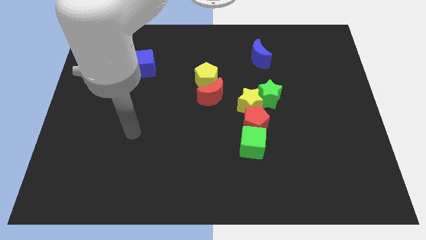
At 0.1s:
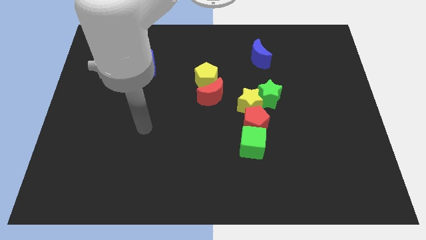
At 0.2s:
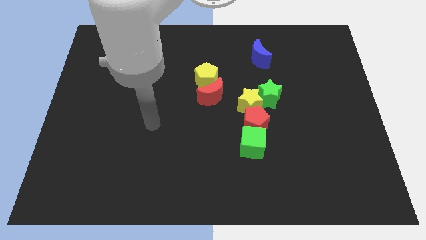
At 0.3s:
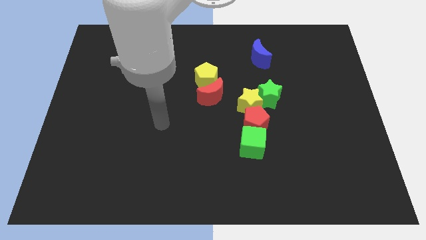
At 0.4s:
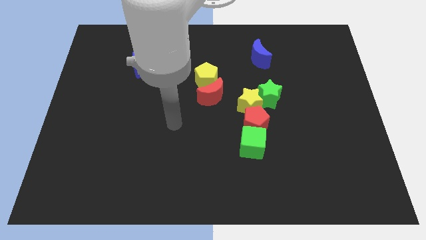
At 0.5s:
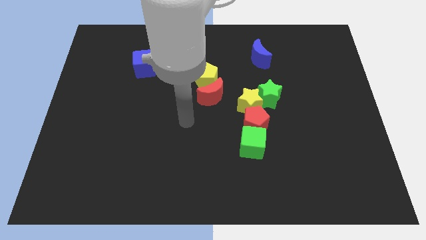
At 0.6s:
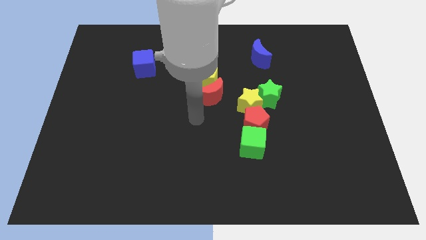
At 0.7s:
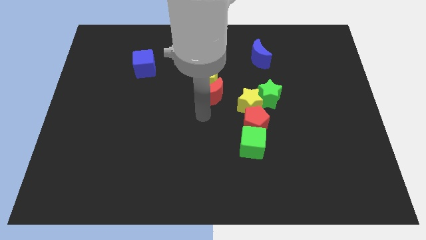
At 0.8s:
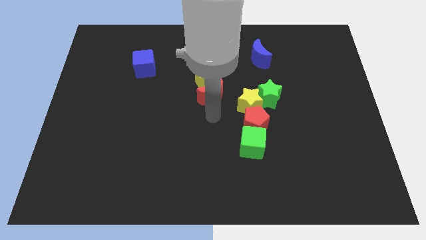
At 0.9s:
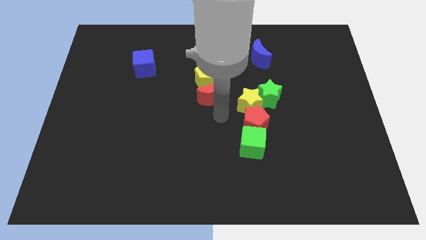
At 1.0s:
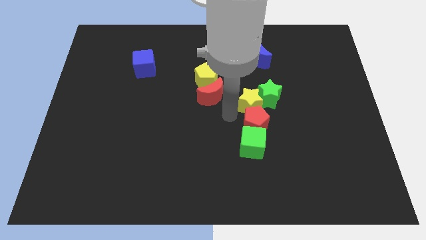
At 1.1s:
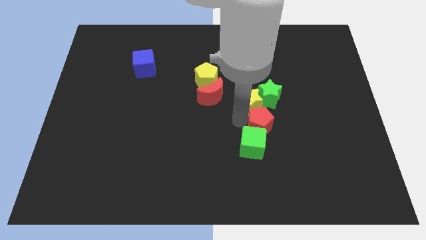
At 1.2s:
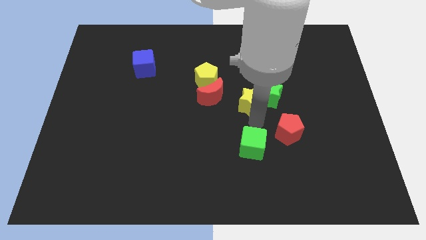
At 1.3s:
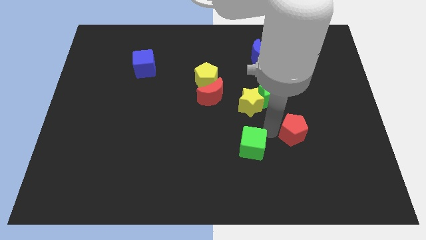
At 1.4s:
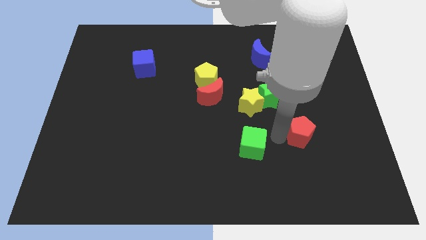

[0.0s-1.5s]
separate the green cube from the red pentagon

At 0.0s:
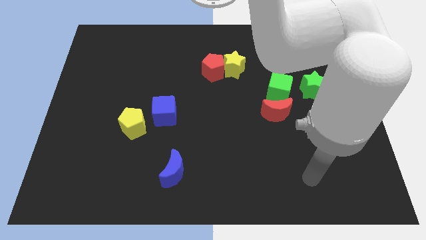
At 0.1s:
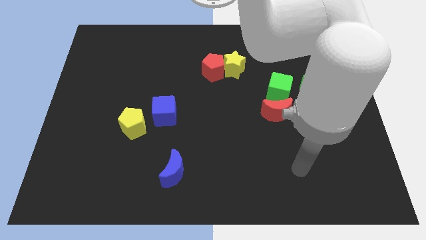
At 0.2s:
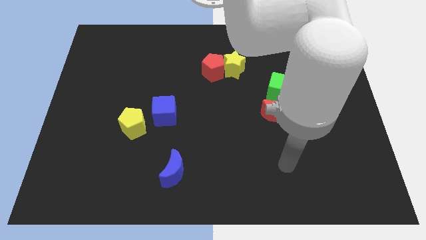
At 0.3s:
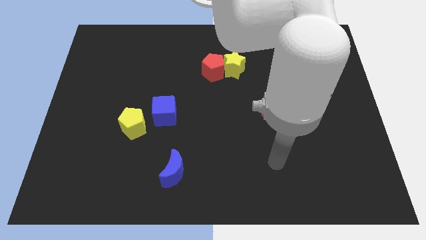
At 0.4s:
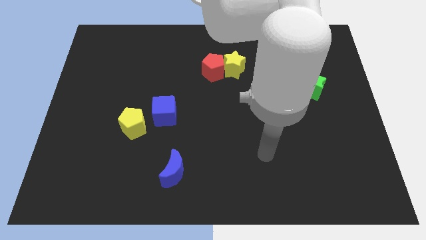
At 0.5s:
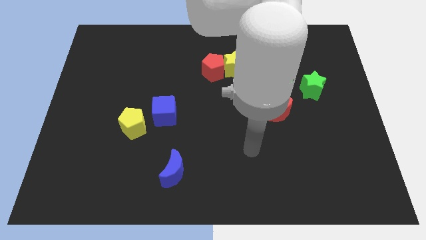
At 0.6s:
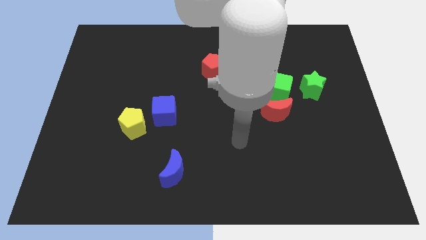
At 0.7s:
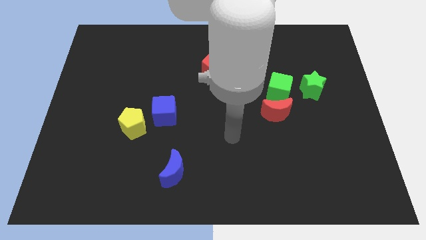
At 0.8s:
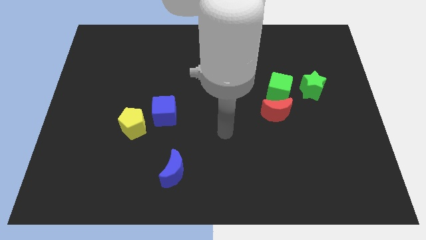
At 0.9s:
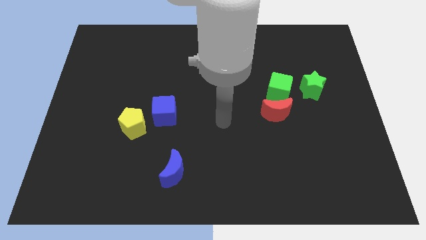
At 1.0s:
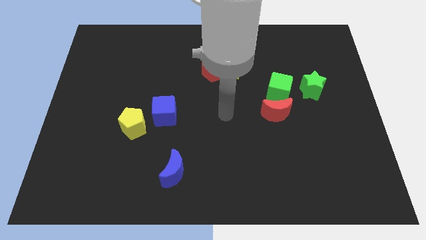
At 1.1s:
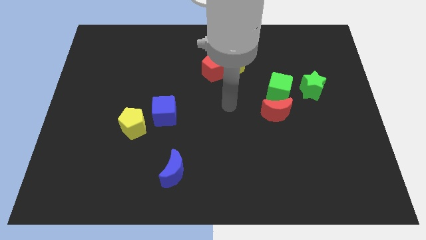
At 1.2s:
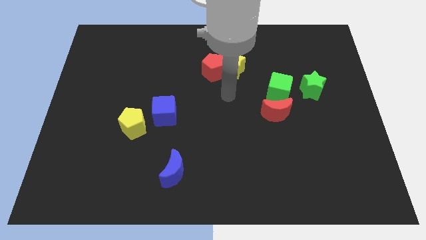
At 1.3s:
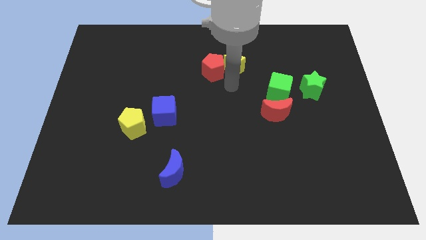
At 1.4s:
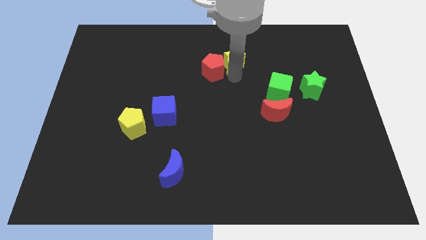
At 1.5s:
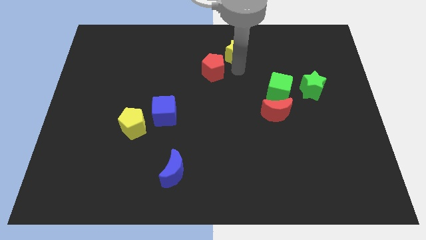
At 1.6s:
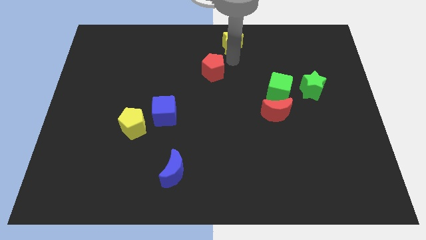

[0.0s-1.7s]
move the red pentagon away from the yellow star

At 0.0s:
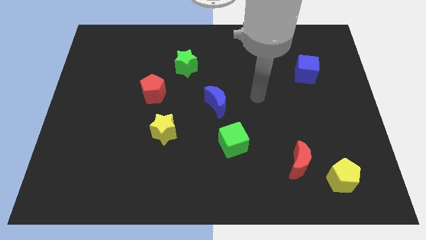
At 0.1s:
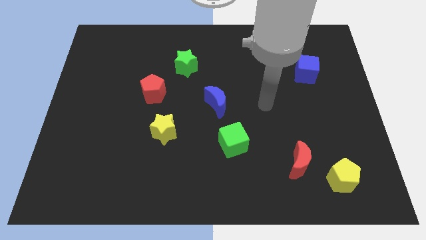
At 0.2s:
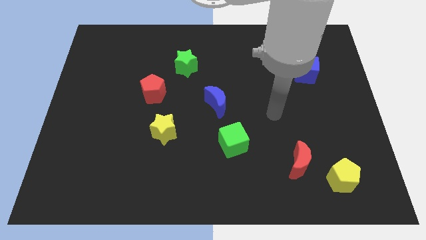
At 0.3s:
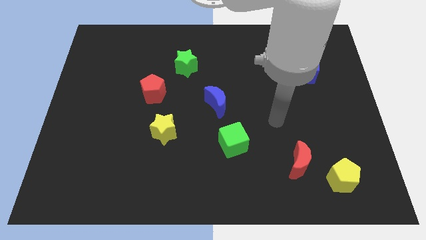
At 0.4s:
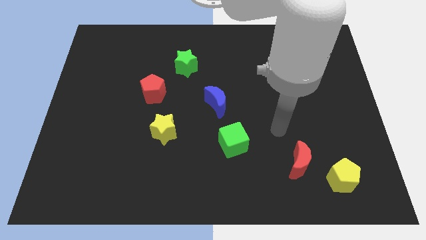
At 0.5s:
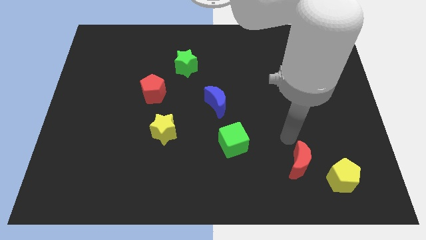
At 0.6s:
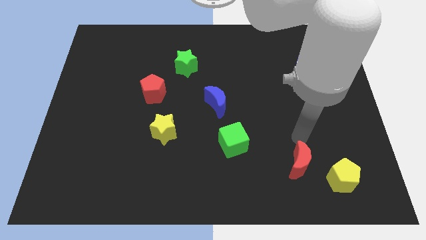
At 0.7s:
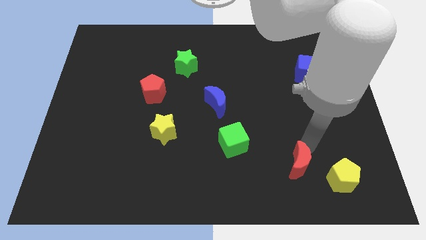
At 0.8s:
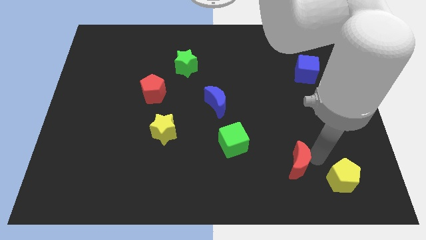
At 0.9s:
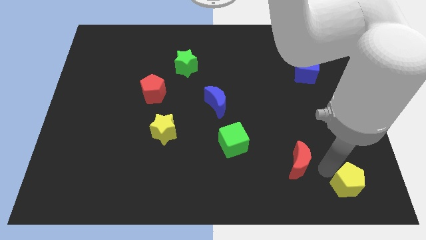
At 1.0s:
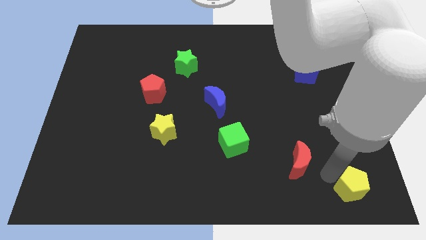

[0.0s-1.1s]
move the red moon away from the yellow pentagon

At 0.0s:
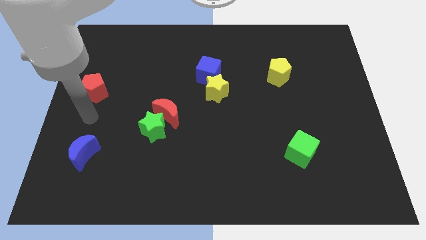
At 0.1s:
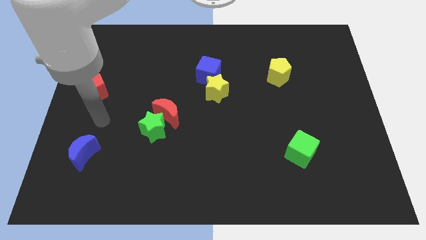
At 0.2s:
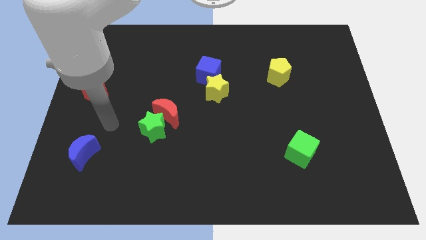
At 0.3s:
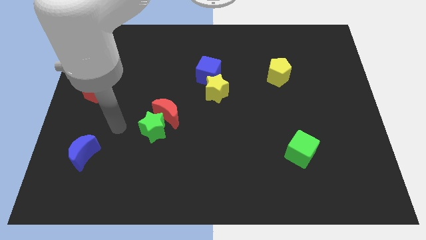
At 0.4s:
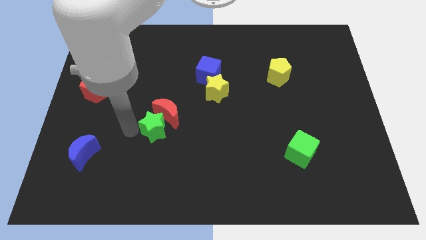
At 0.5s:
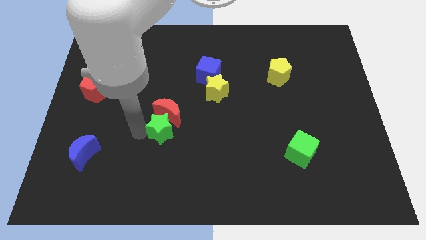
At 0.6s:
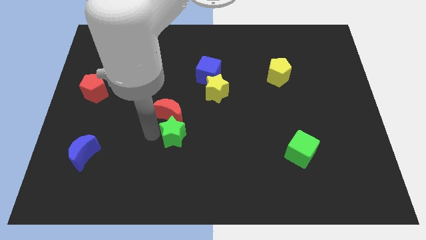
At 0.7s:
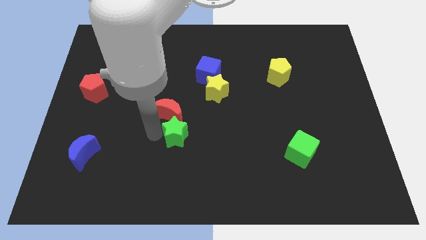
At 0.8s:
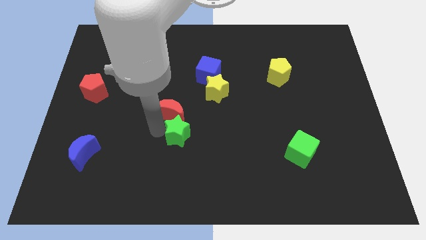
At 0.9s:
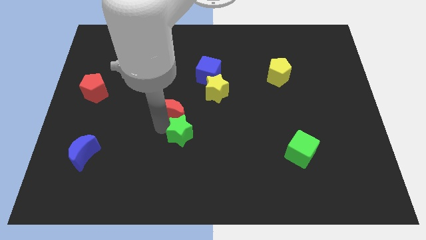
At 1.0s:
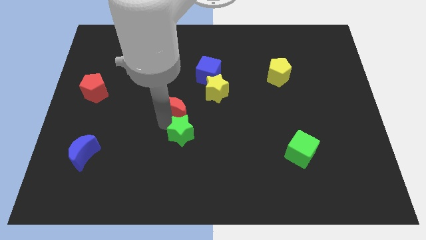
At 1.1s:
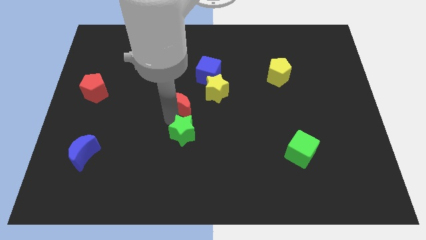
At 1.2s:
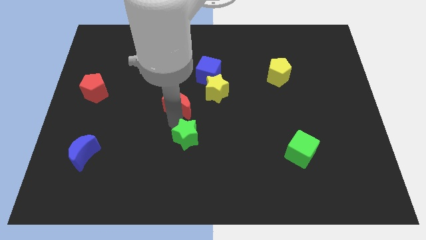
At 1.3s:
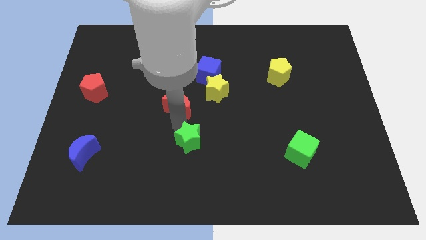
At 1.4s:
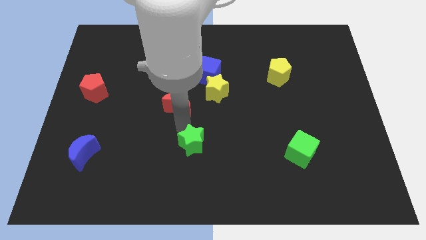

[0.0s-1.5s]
pull the red moon apart from the green star

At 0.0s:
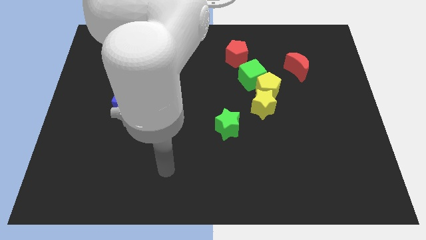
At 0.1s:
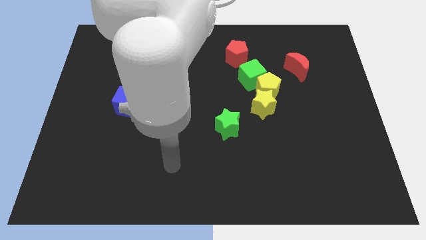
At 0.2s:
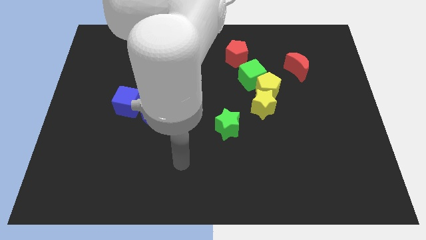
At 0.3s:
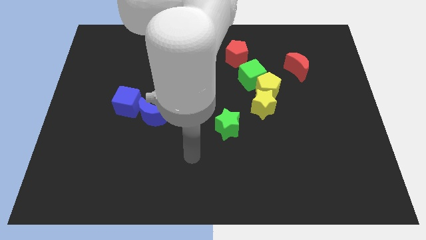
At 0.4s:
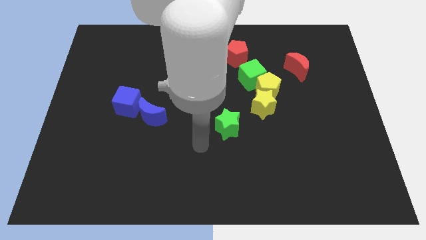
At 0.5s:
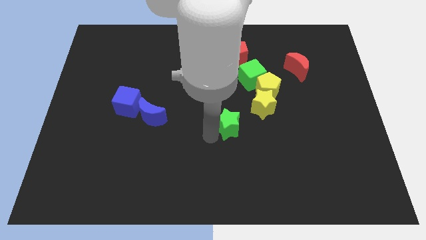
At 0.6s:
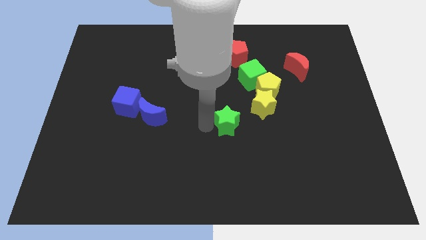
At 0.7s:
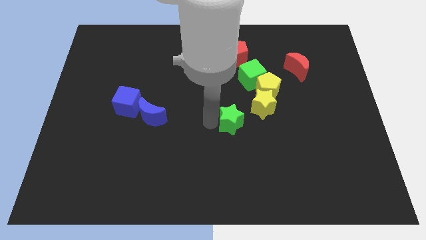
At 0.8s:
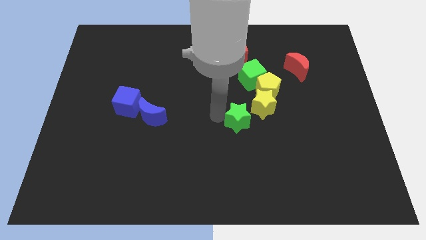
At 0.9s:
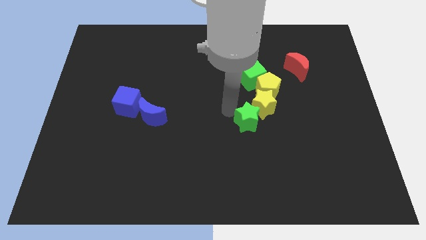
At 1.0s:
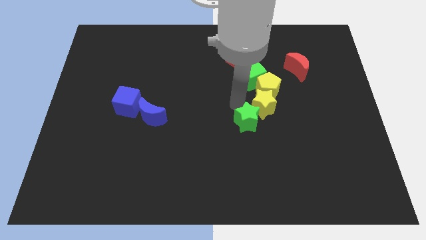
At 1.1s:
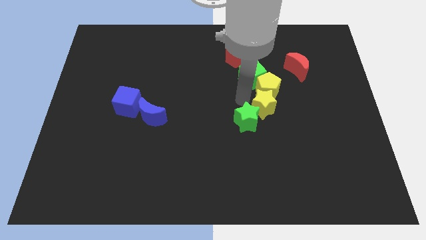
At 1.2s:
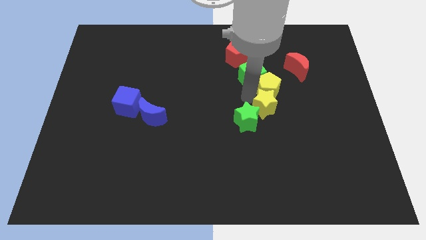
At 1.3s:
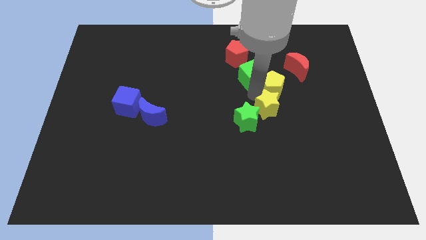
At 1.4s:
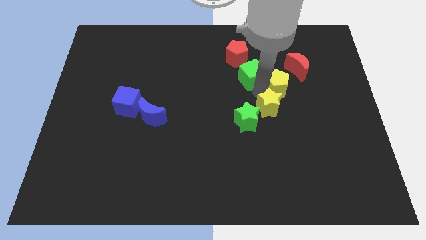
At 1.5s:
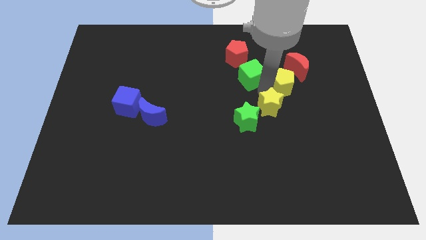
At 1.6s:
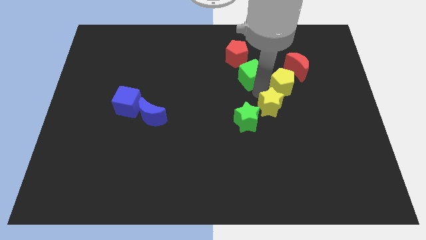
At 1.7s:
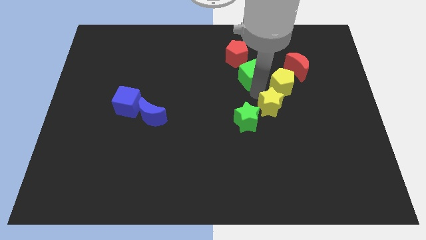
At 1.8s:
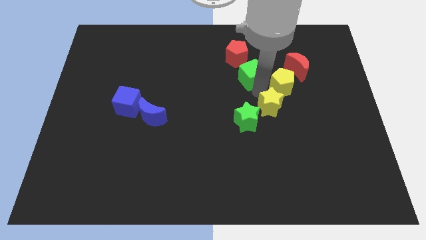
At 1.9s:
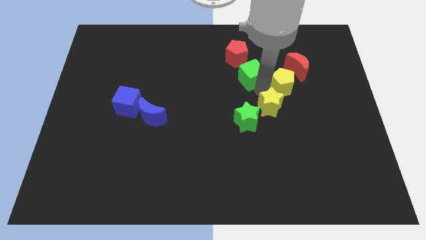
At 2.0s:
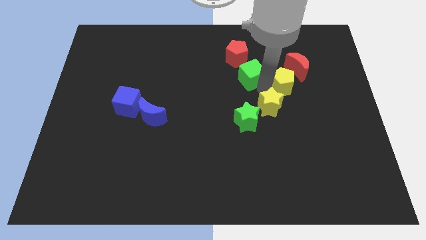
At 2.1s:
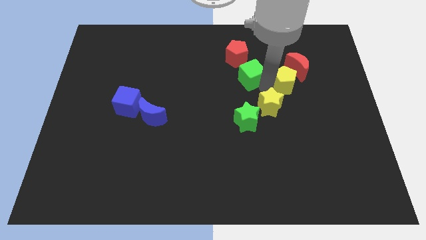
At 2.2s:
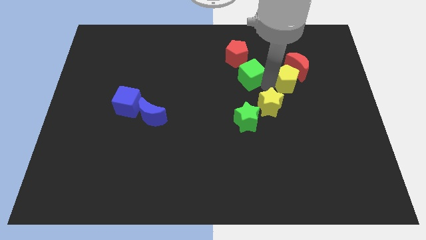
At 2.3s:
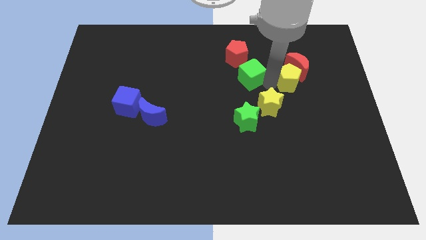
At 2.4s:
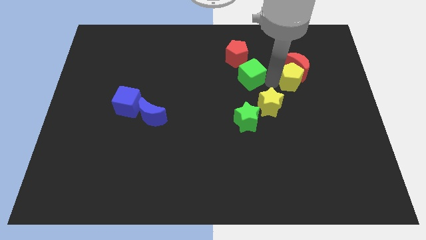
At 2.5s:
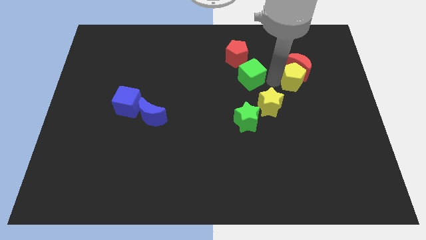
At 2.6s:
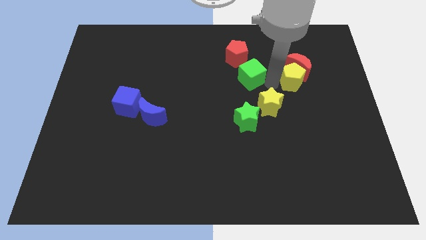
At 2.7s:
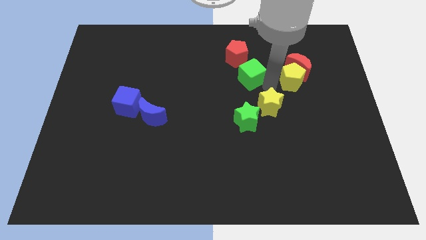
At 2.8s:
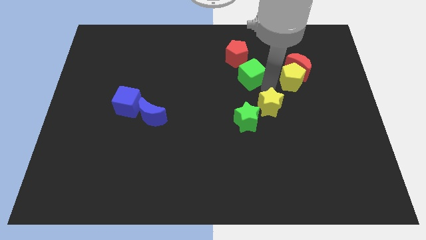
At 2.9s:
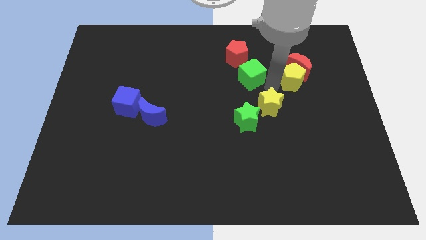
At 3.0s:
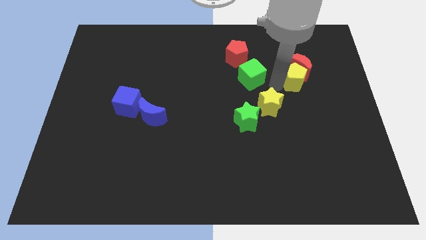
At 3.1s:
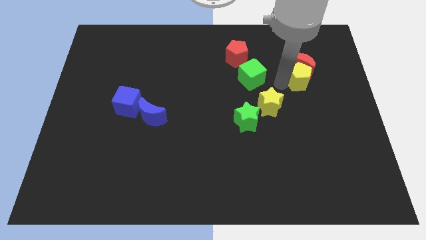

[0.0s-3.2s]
move the yellow pentagon away from the green cube and yellow star

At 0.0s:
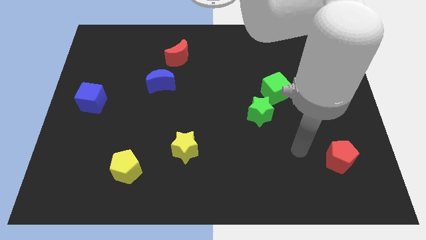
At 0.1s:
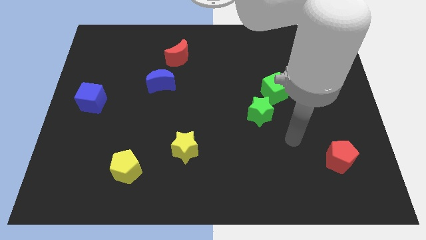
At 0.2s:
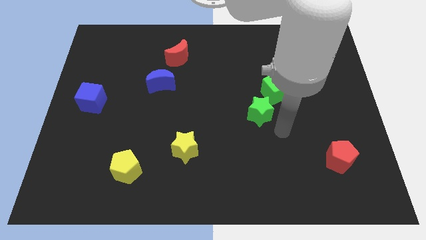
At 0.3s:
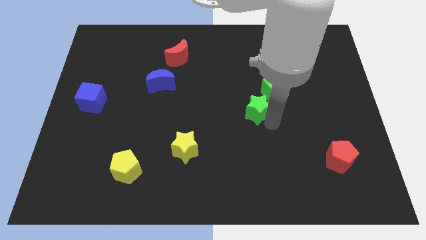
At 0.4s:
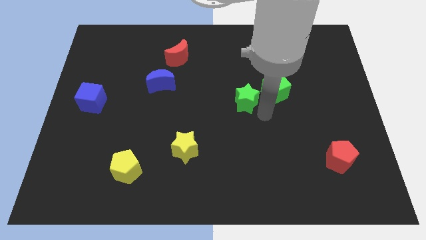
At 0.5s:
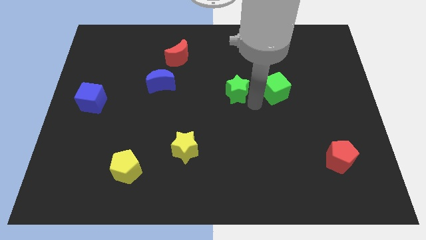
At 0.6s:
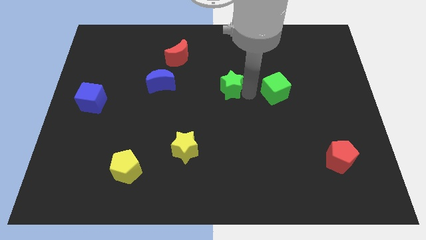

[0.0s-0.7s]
pull the green cube apart from the green star
